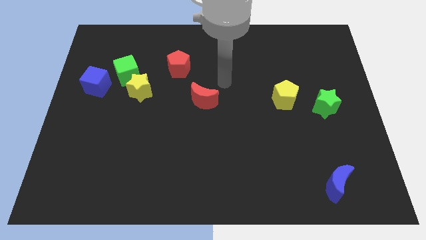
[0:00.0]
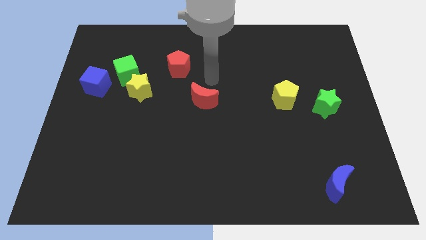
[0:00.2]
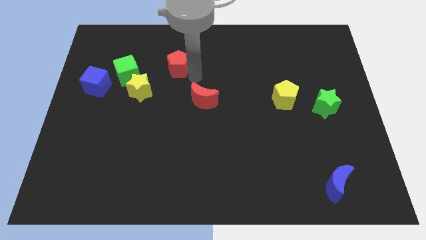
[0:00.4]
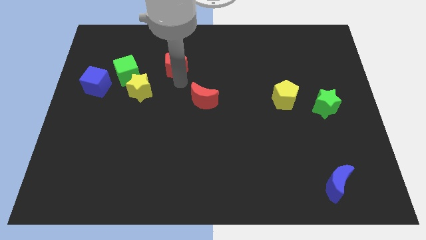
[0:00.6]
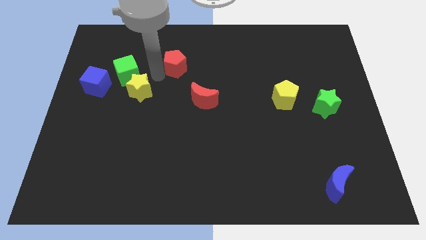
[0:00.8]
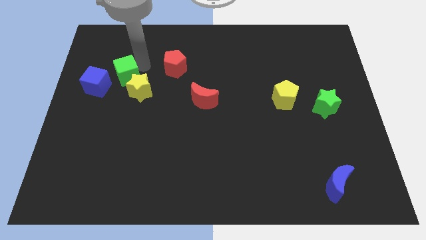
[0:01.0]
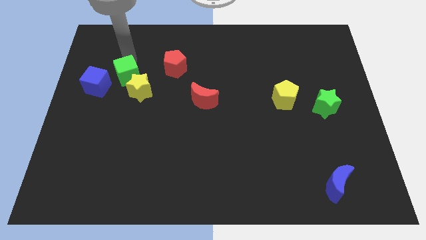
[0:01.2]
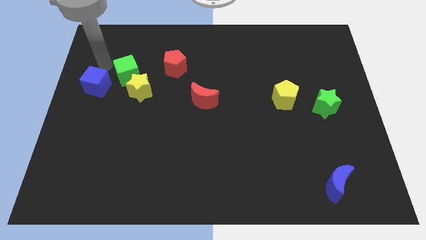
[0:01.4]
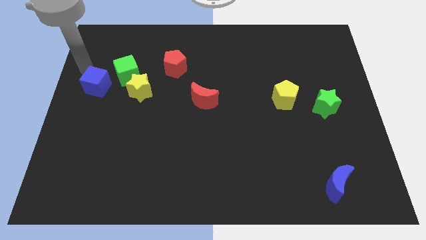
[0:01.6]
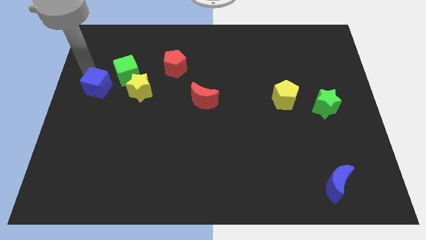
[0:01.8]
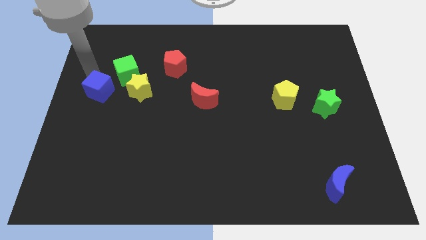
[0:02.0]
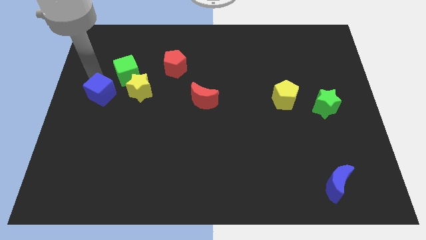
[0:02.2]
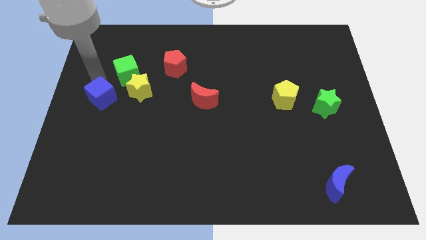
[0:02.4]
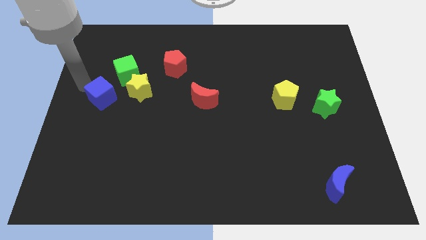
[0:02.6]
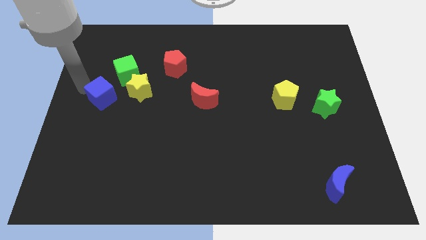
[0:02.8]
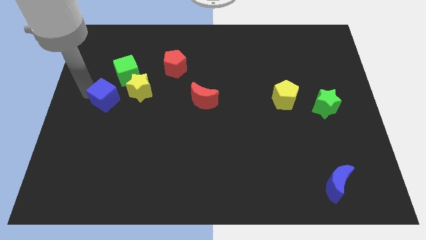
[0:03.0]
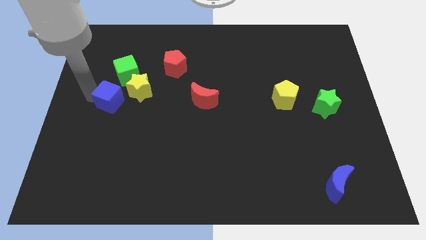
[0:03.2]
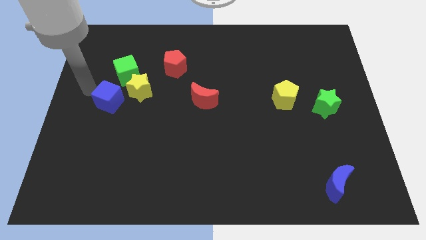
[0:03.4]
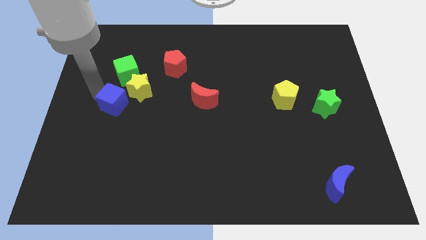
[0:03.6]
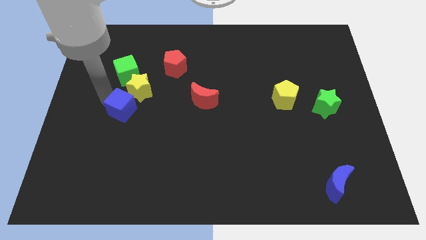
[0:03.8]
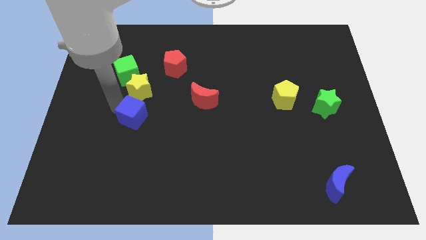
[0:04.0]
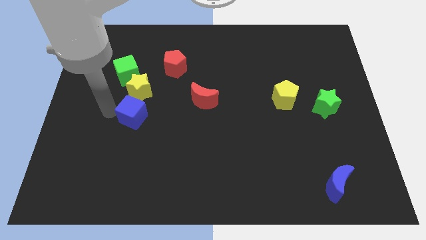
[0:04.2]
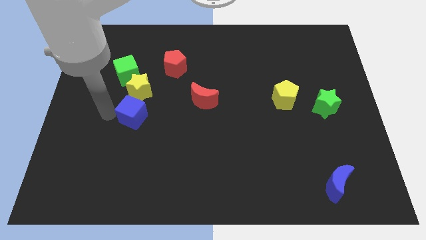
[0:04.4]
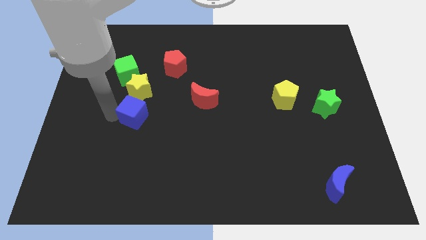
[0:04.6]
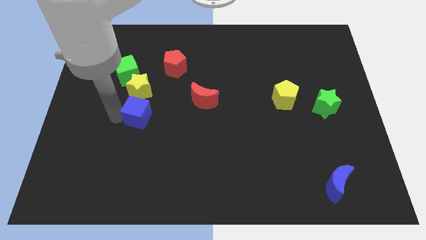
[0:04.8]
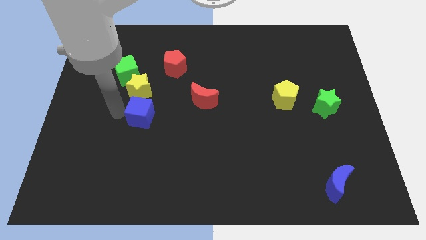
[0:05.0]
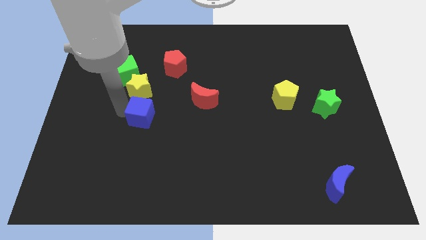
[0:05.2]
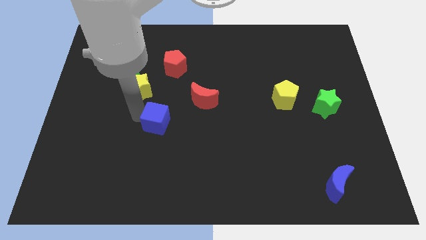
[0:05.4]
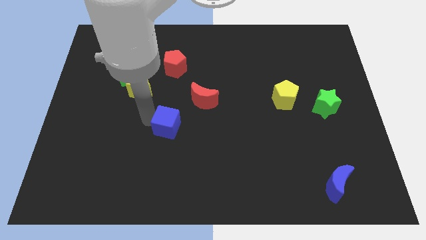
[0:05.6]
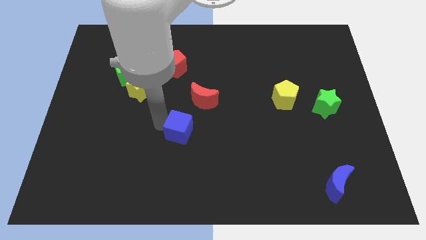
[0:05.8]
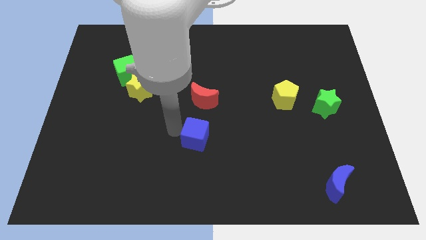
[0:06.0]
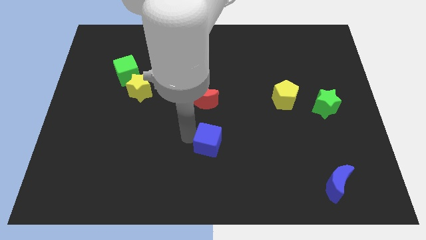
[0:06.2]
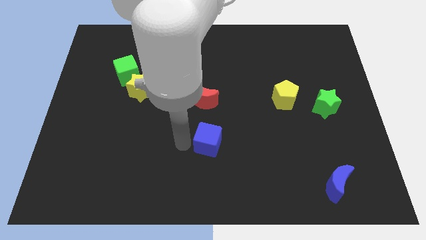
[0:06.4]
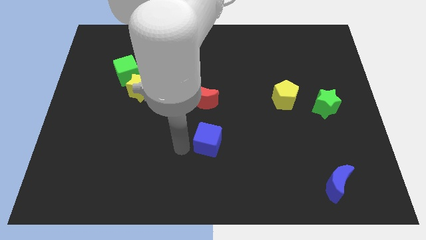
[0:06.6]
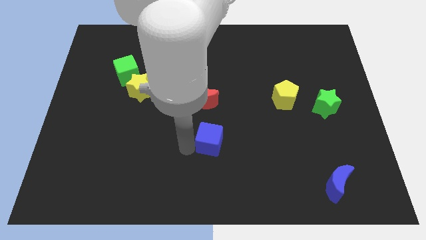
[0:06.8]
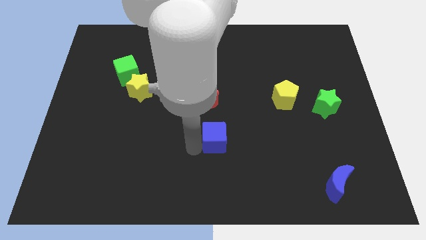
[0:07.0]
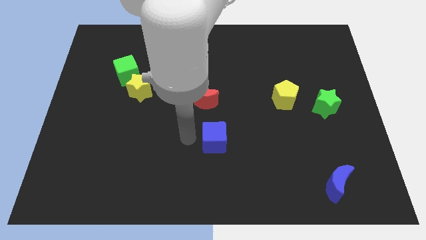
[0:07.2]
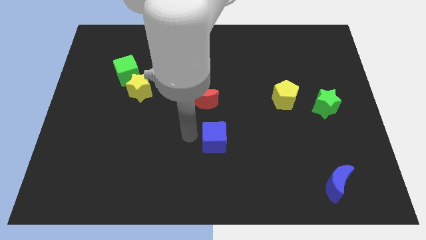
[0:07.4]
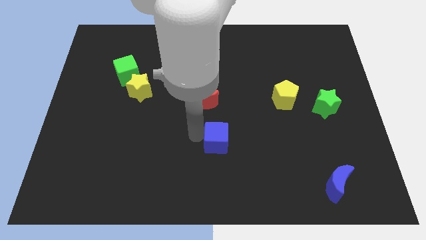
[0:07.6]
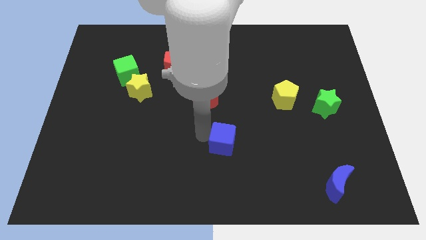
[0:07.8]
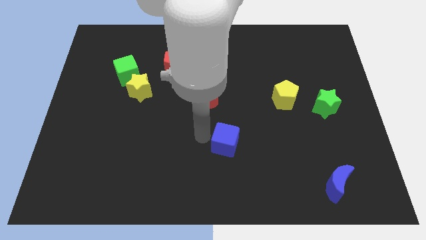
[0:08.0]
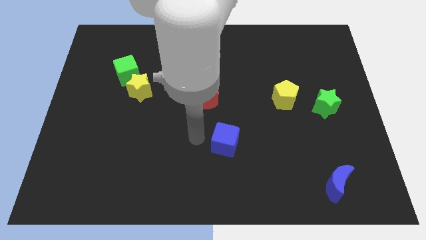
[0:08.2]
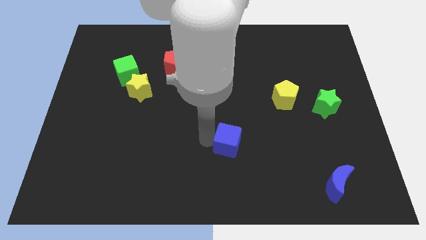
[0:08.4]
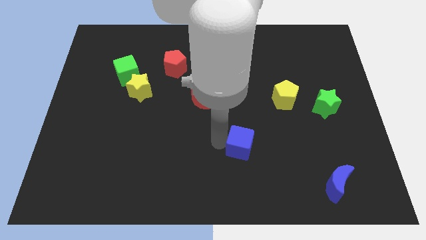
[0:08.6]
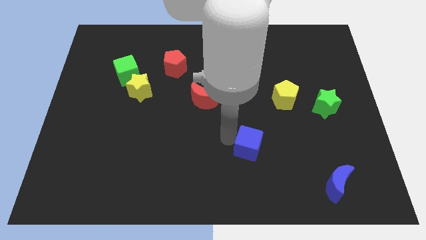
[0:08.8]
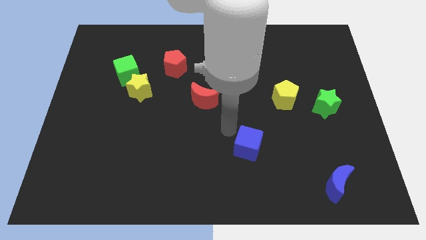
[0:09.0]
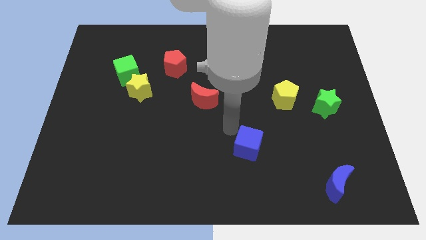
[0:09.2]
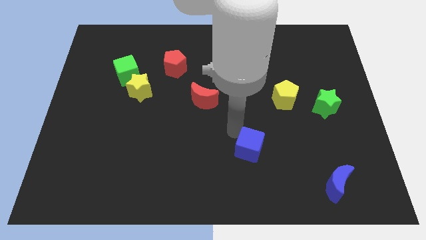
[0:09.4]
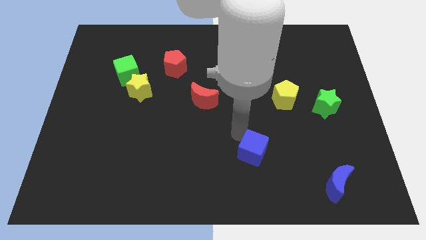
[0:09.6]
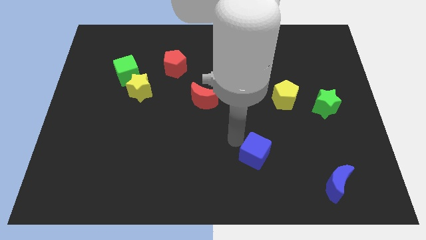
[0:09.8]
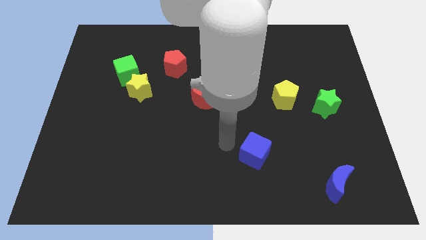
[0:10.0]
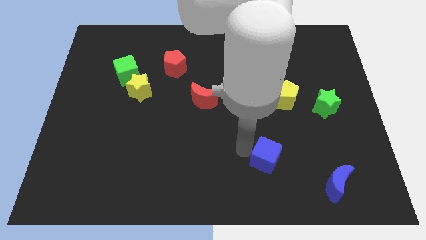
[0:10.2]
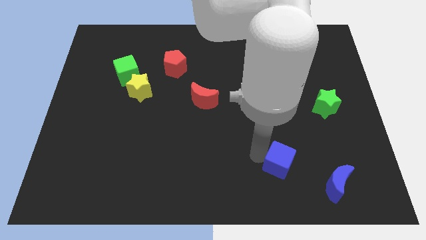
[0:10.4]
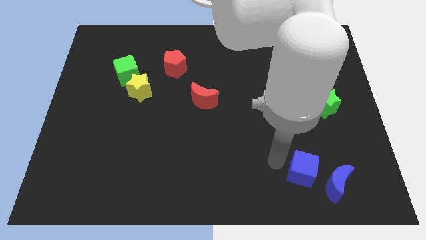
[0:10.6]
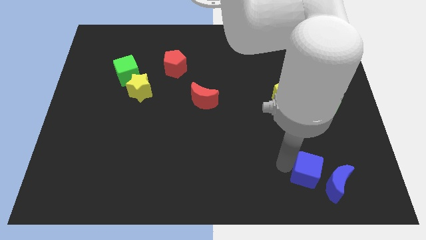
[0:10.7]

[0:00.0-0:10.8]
put the blue cube towards the blue moon

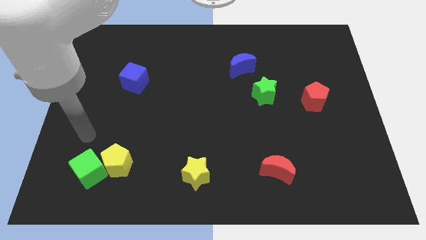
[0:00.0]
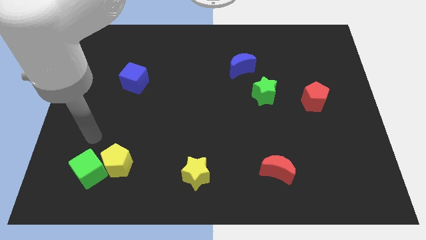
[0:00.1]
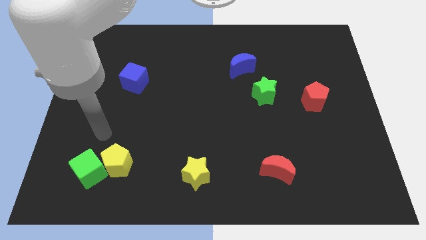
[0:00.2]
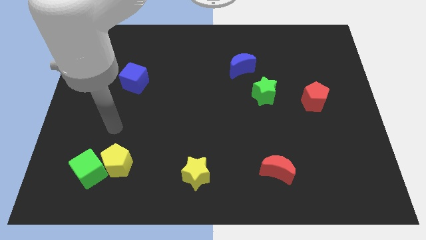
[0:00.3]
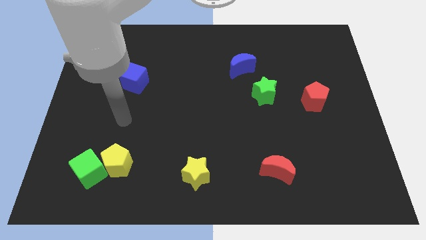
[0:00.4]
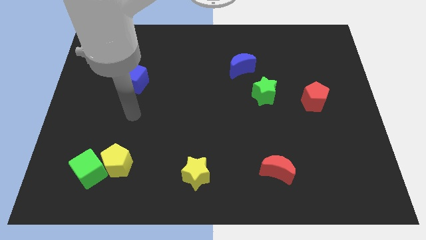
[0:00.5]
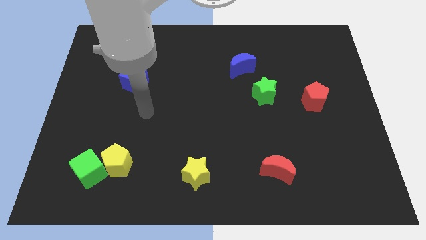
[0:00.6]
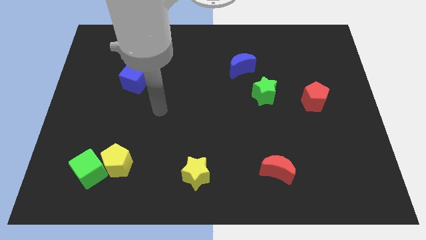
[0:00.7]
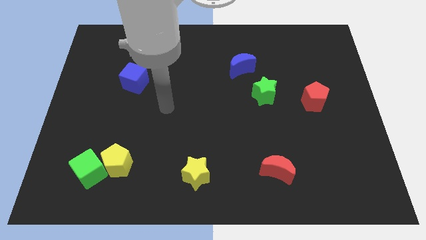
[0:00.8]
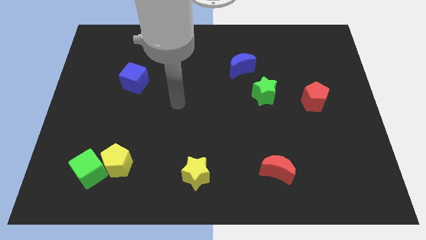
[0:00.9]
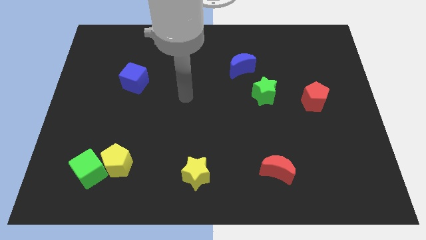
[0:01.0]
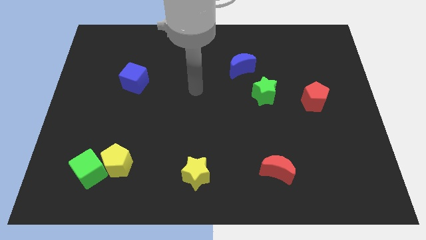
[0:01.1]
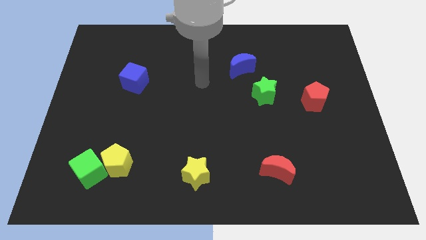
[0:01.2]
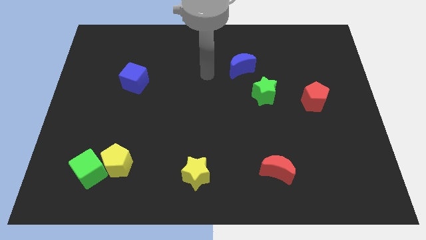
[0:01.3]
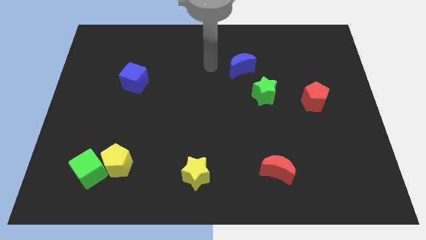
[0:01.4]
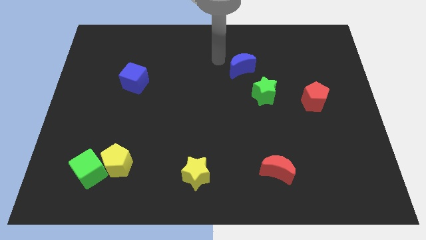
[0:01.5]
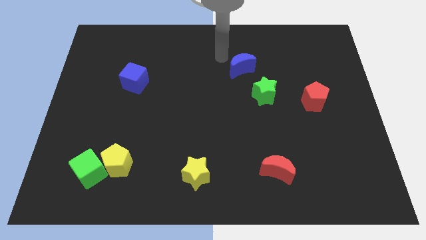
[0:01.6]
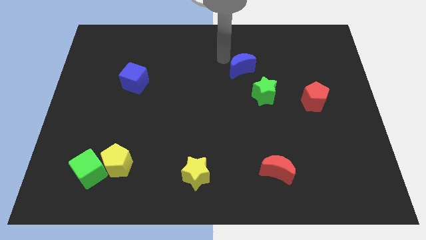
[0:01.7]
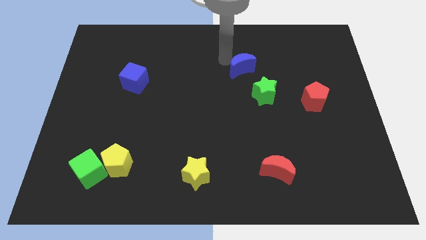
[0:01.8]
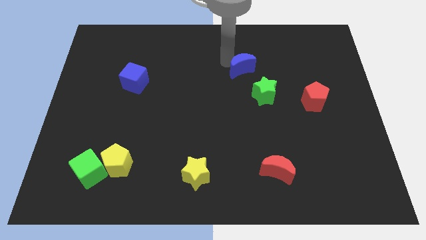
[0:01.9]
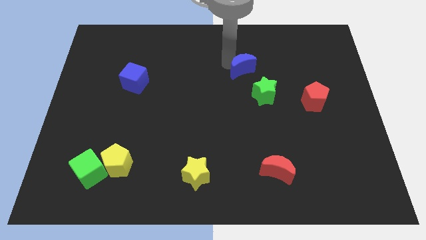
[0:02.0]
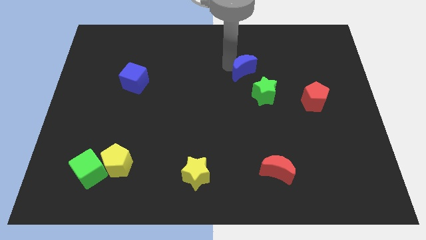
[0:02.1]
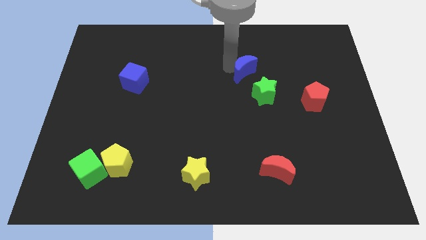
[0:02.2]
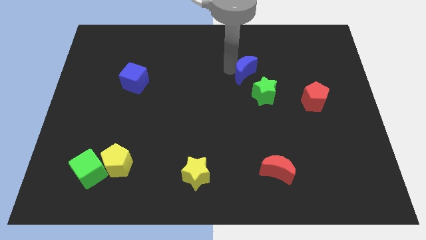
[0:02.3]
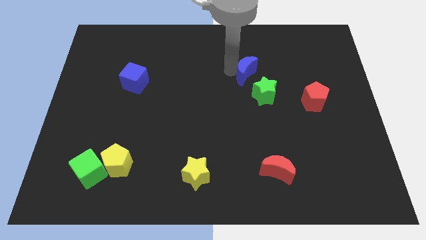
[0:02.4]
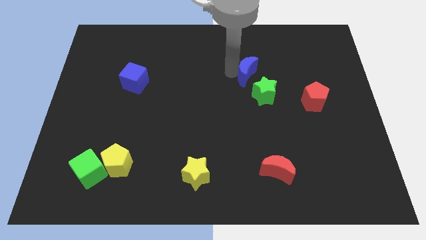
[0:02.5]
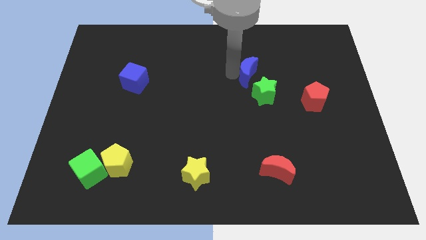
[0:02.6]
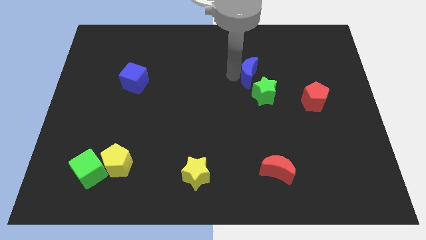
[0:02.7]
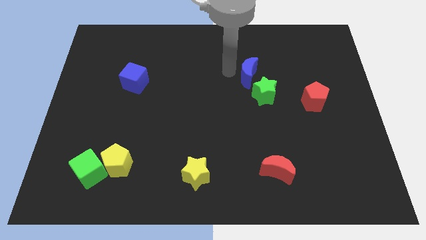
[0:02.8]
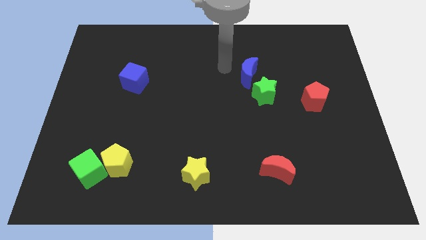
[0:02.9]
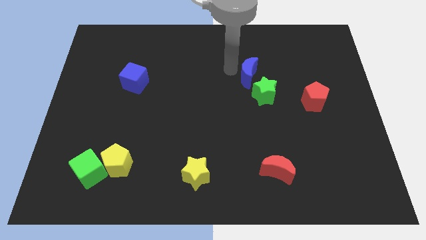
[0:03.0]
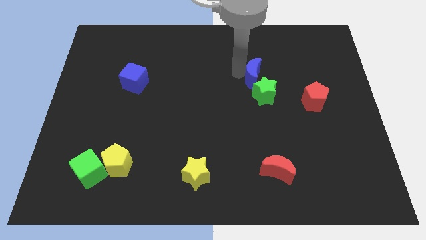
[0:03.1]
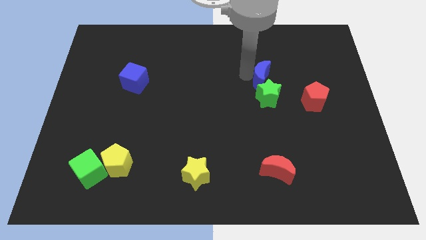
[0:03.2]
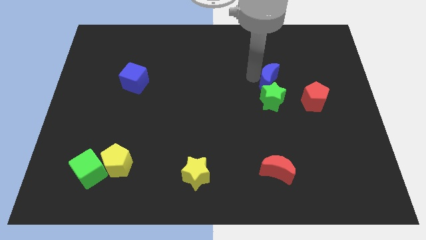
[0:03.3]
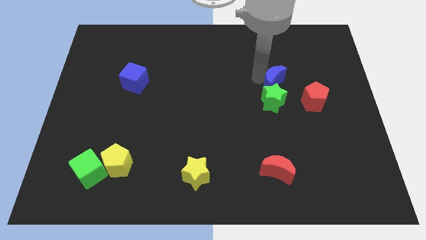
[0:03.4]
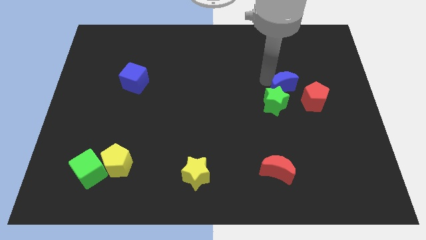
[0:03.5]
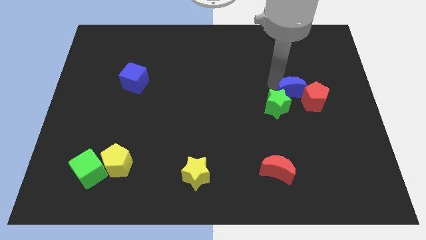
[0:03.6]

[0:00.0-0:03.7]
put the blue moon towards the red pentagon
